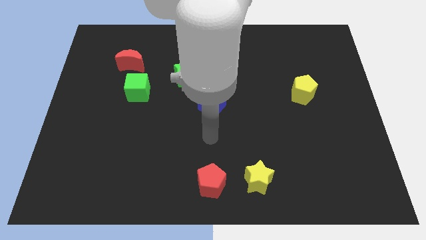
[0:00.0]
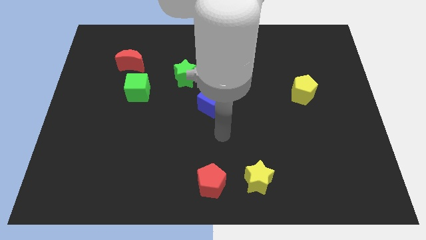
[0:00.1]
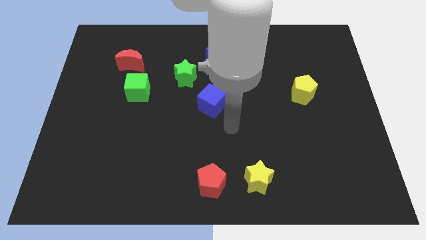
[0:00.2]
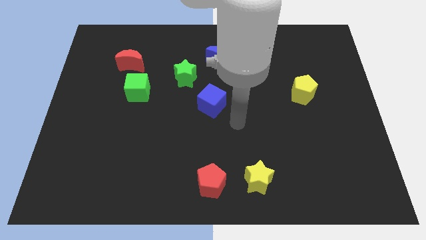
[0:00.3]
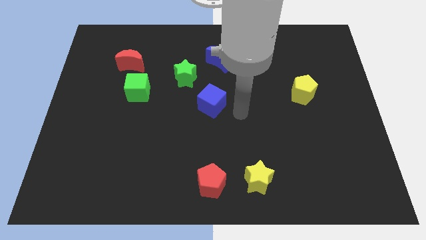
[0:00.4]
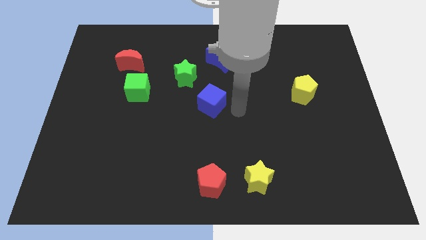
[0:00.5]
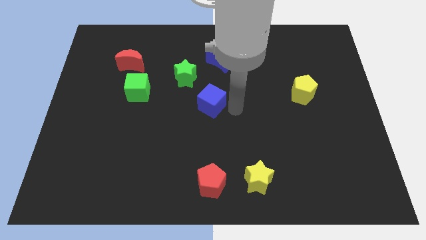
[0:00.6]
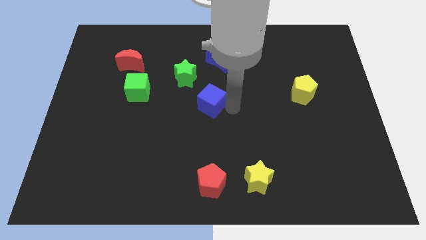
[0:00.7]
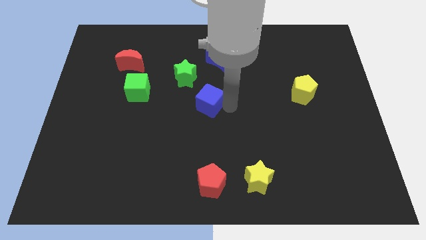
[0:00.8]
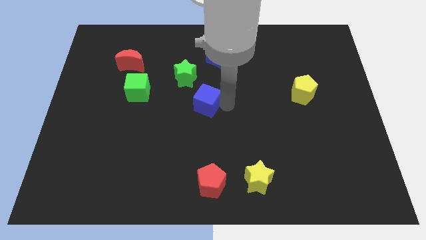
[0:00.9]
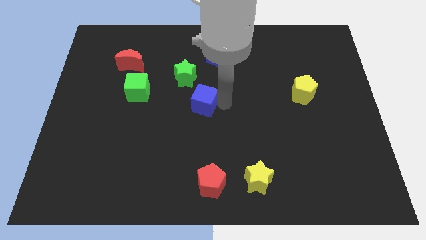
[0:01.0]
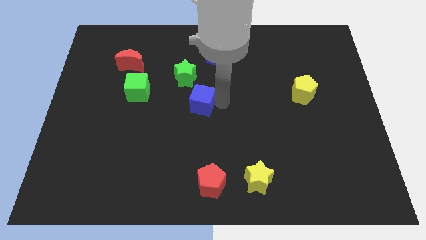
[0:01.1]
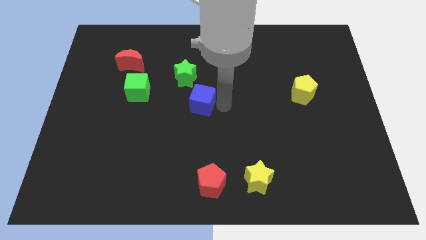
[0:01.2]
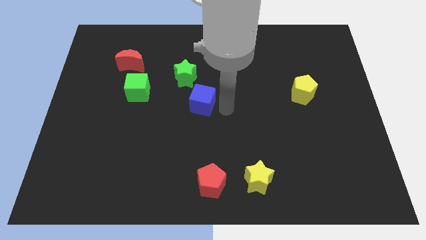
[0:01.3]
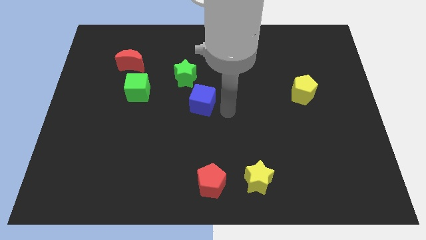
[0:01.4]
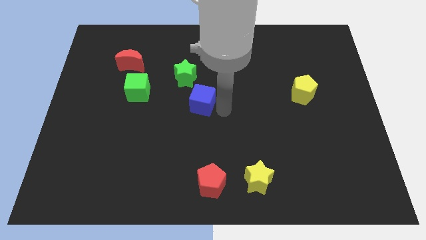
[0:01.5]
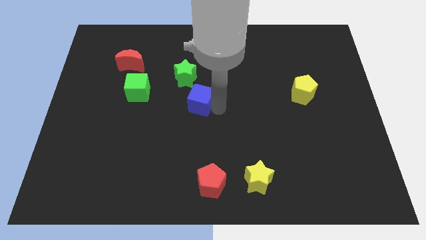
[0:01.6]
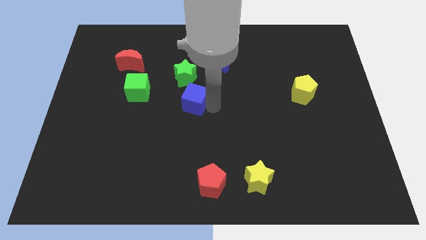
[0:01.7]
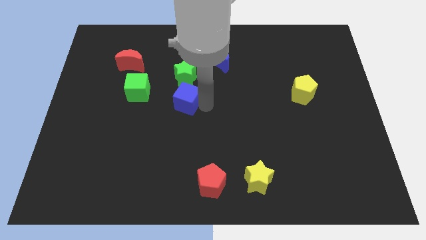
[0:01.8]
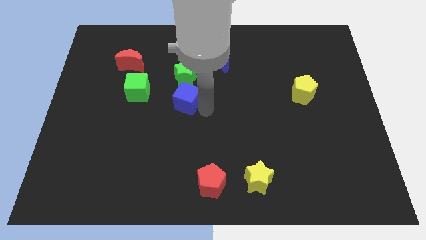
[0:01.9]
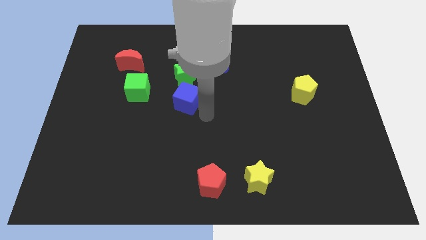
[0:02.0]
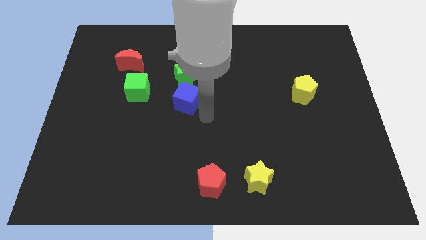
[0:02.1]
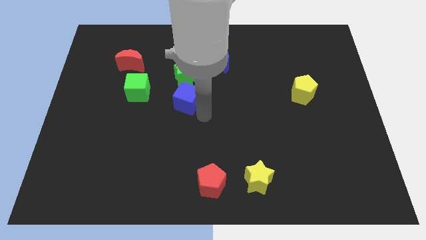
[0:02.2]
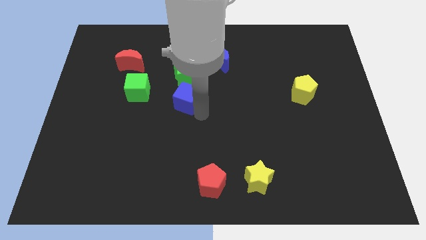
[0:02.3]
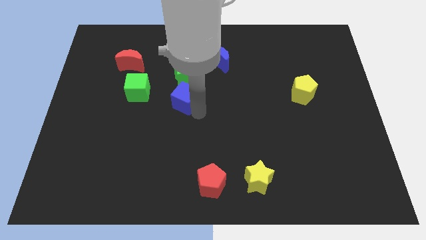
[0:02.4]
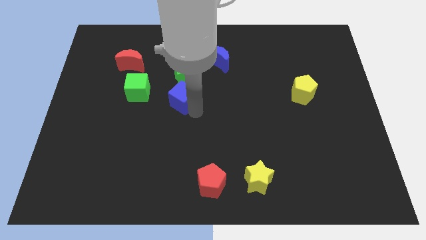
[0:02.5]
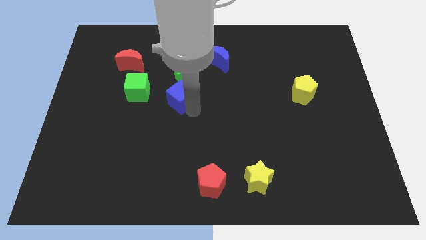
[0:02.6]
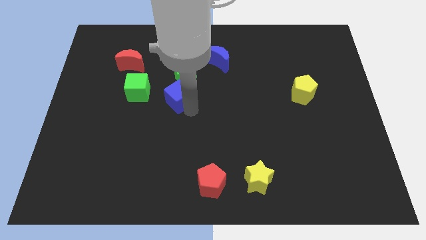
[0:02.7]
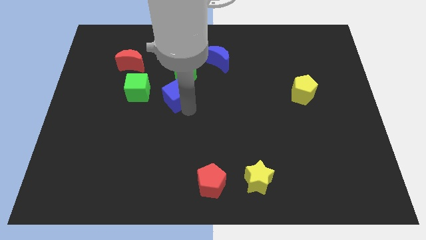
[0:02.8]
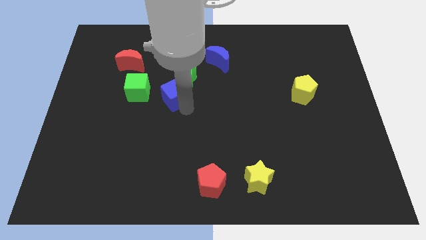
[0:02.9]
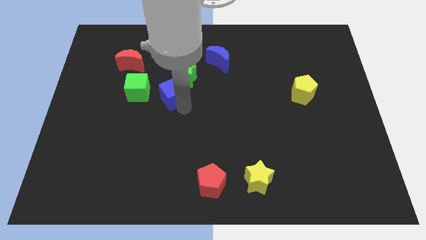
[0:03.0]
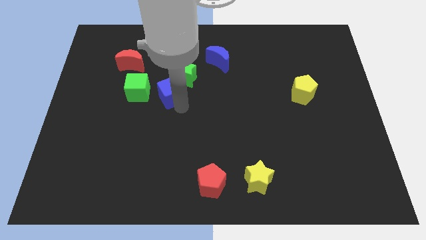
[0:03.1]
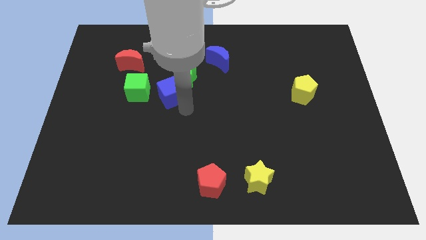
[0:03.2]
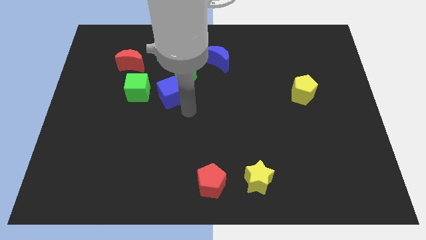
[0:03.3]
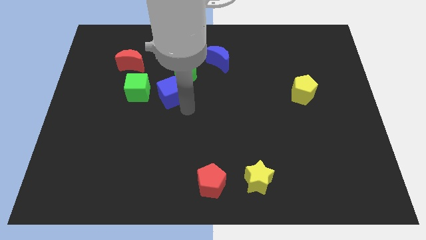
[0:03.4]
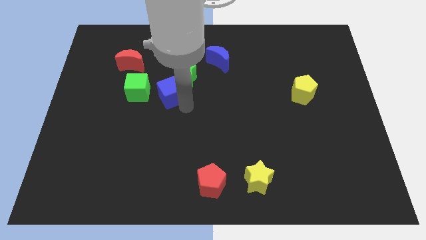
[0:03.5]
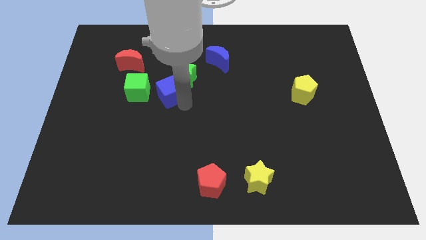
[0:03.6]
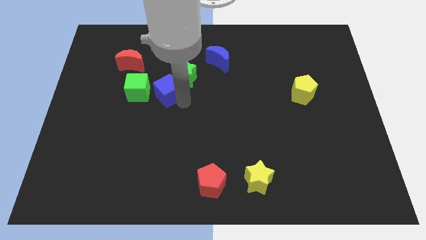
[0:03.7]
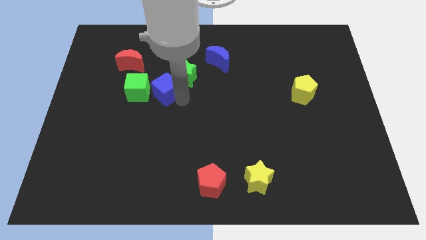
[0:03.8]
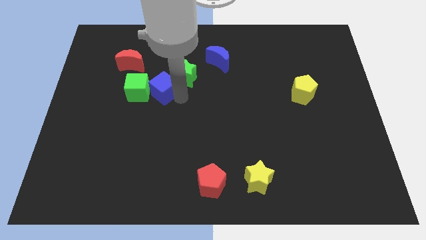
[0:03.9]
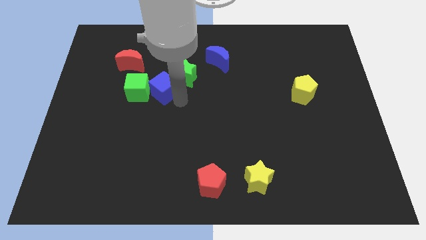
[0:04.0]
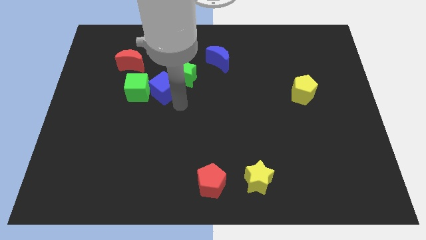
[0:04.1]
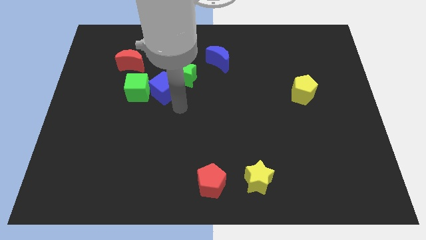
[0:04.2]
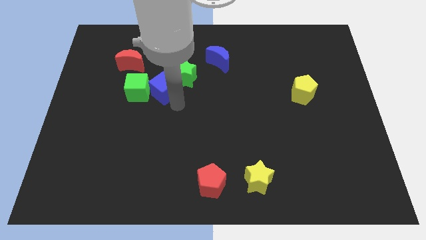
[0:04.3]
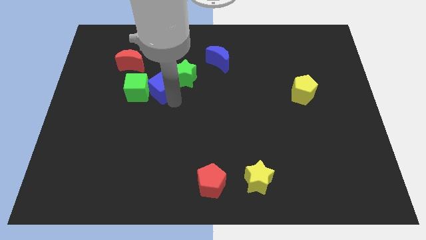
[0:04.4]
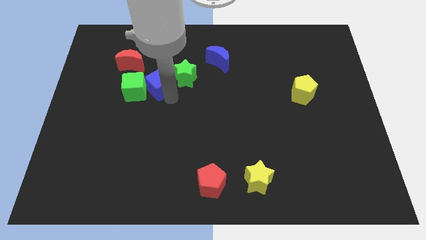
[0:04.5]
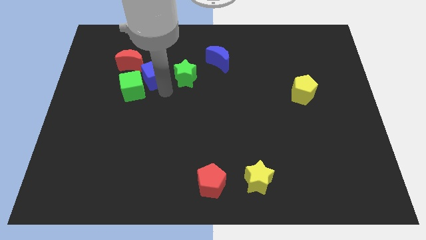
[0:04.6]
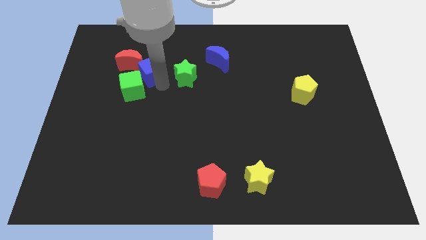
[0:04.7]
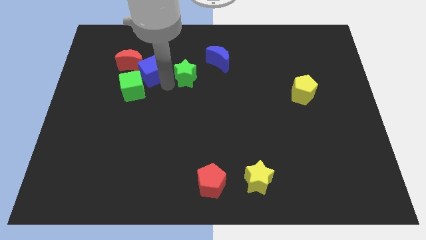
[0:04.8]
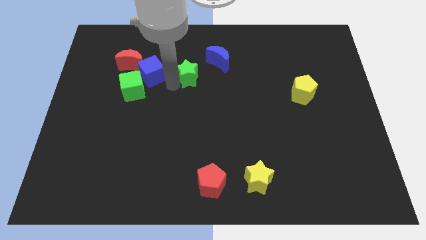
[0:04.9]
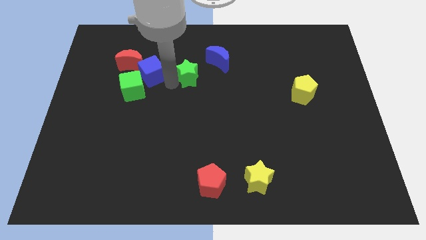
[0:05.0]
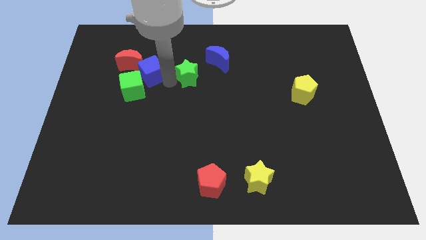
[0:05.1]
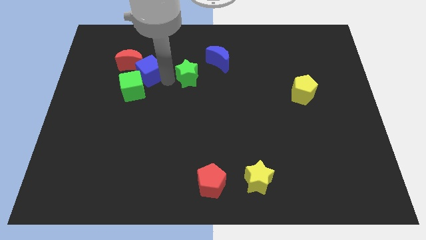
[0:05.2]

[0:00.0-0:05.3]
push the blue cube towards the red moon

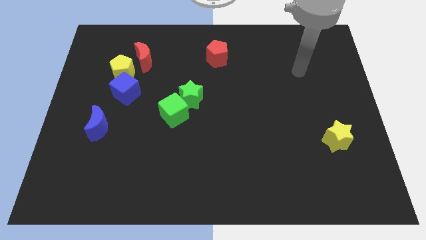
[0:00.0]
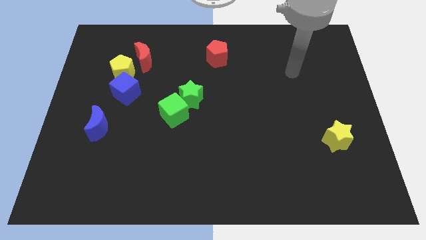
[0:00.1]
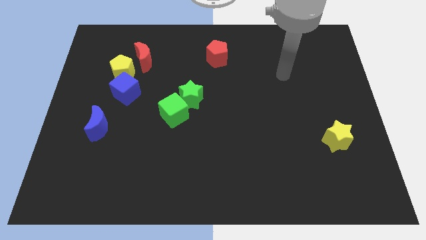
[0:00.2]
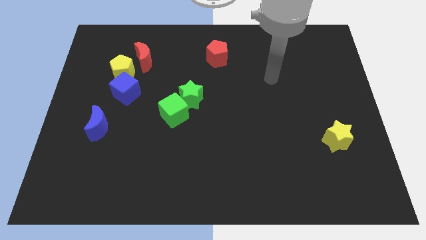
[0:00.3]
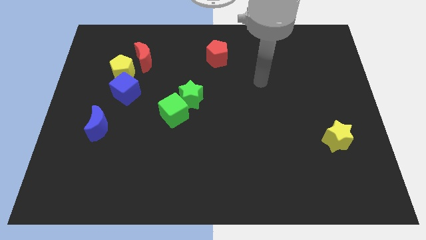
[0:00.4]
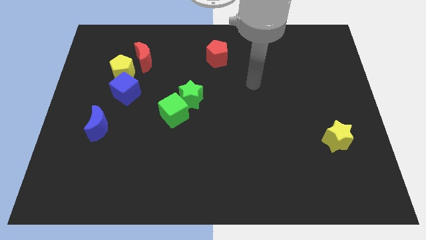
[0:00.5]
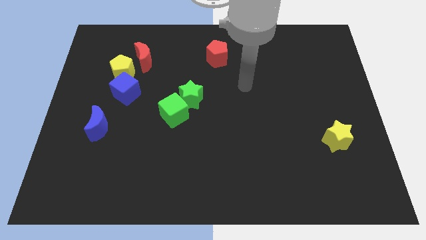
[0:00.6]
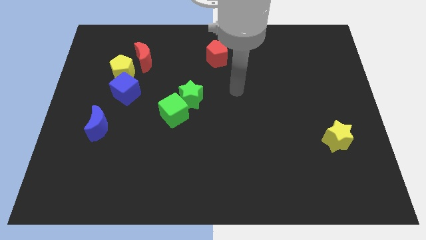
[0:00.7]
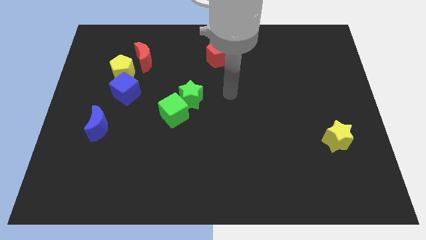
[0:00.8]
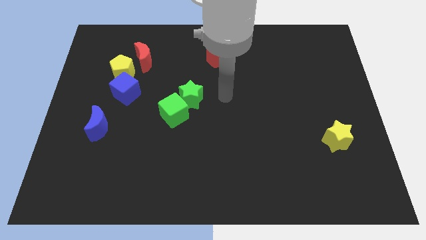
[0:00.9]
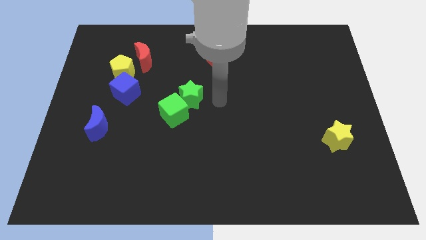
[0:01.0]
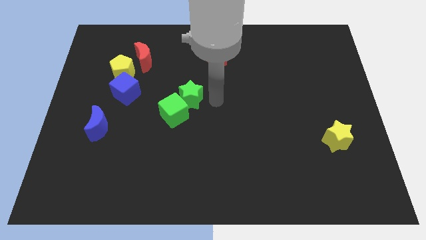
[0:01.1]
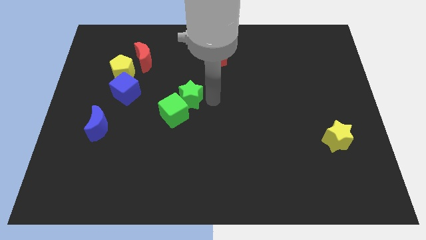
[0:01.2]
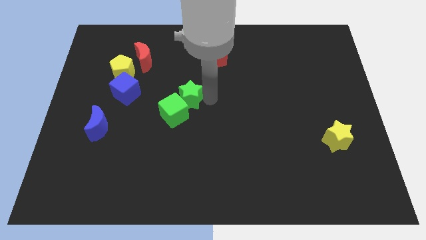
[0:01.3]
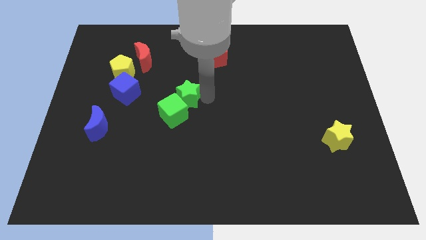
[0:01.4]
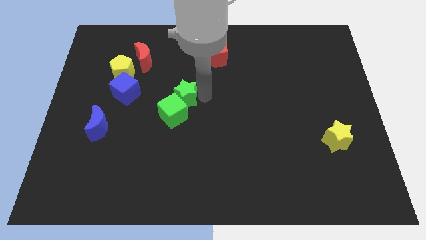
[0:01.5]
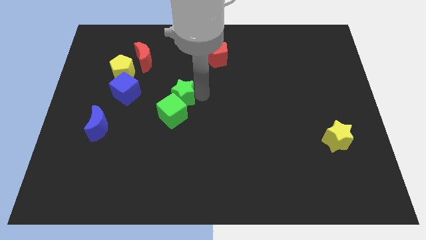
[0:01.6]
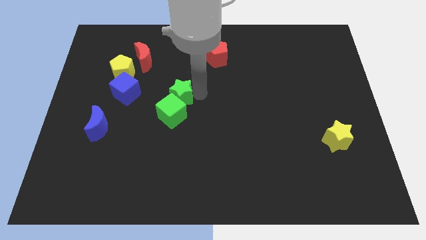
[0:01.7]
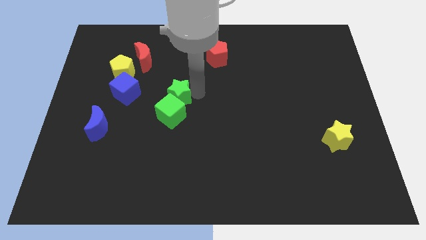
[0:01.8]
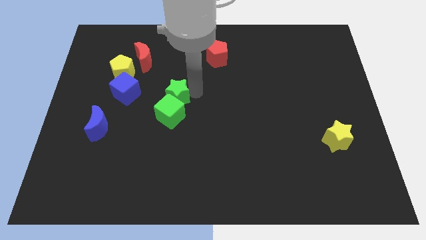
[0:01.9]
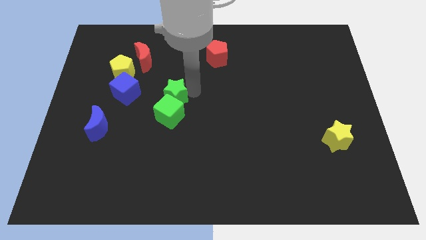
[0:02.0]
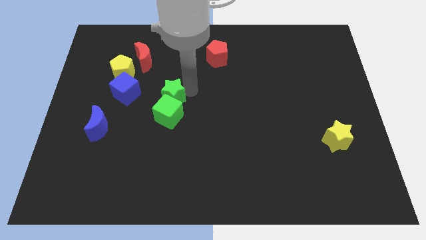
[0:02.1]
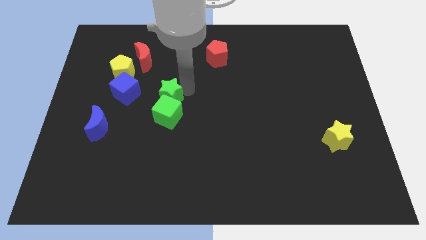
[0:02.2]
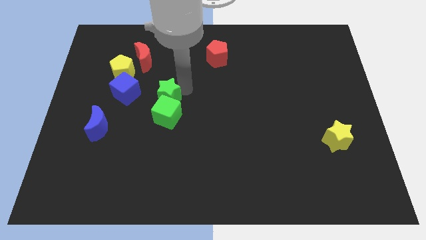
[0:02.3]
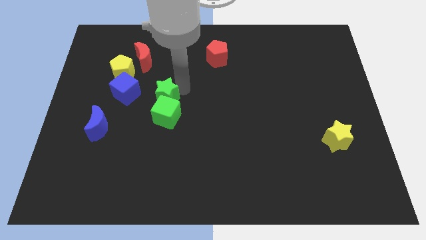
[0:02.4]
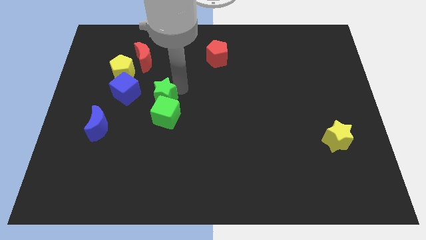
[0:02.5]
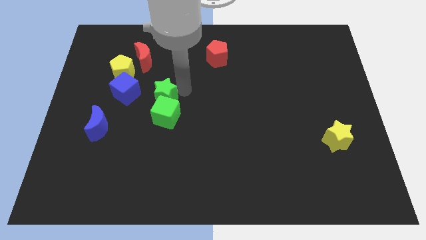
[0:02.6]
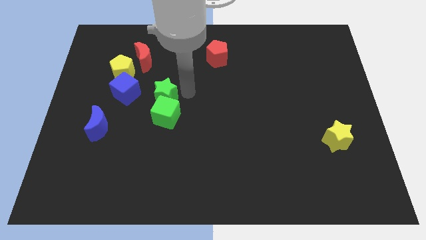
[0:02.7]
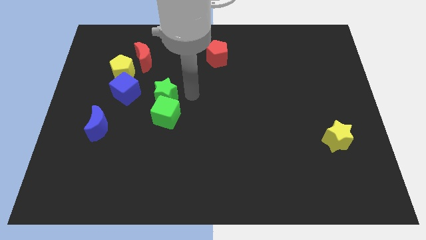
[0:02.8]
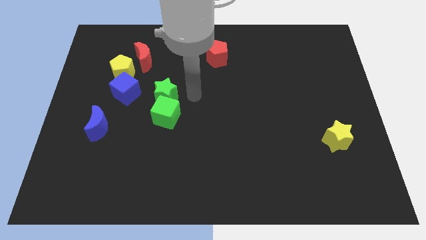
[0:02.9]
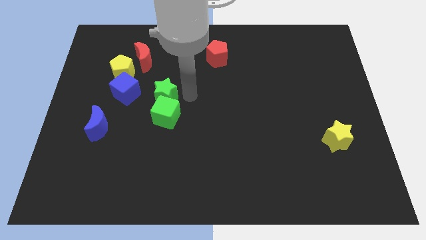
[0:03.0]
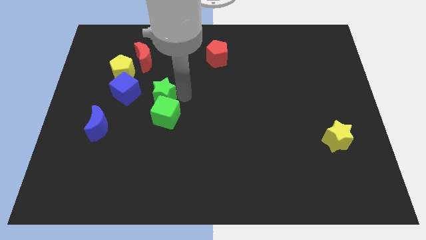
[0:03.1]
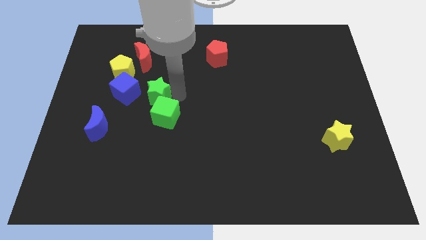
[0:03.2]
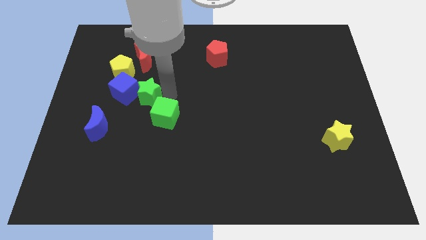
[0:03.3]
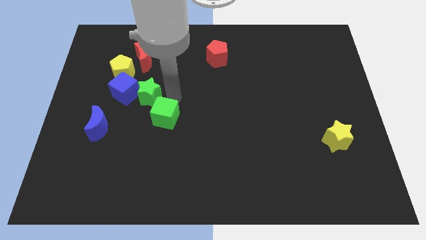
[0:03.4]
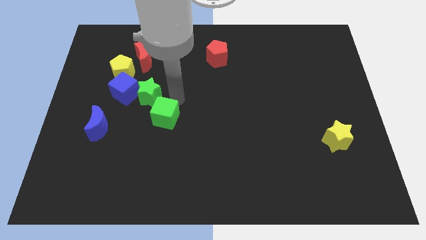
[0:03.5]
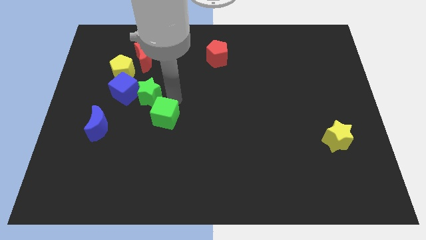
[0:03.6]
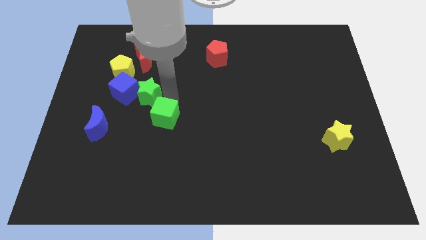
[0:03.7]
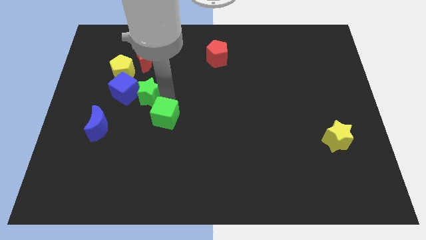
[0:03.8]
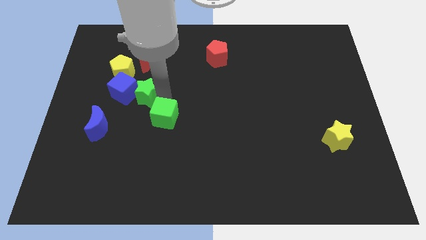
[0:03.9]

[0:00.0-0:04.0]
move the green star to the blue cube
